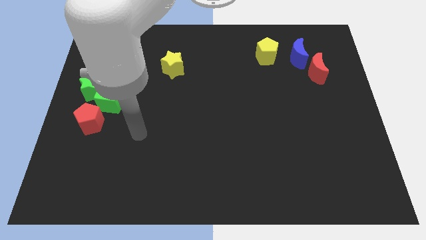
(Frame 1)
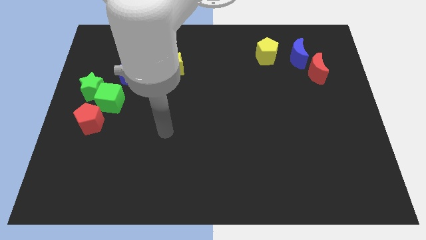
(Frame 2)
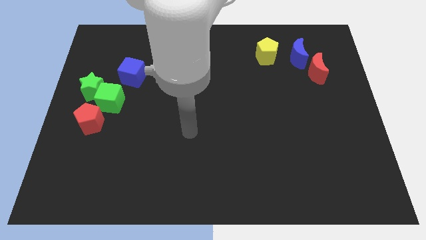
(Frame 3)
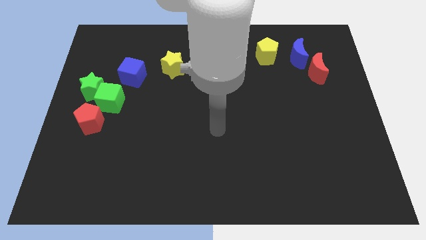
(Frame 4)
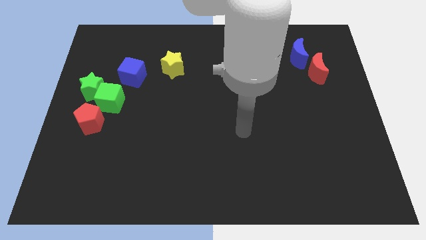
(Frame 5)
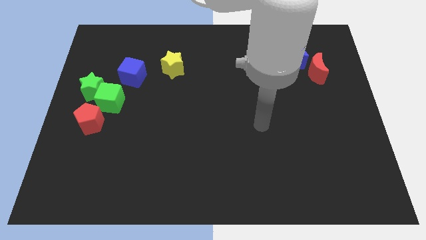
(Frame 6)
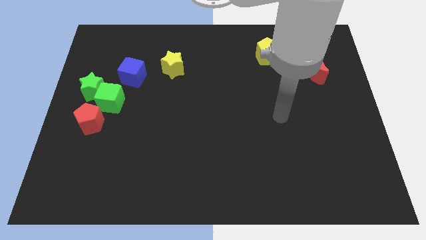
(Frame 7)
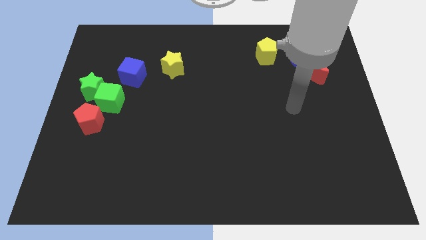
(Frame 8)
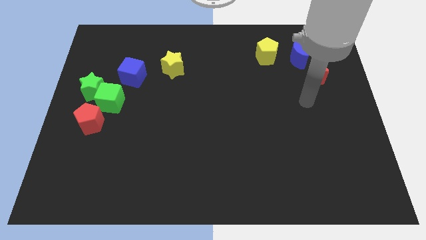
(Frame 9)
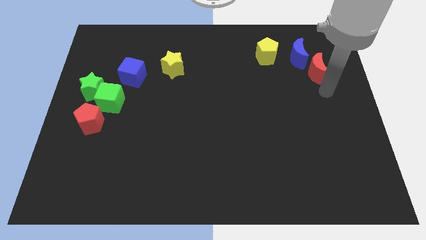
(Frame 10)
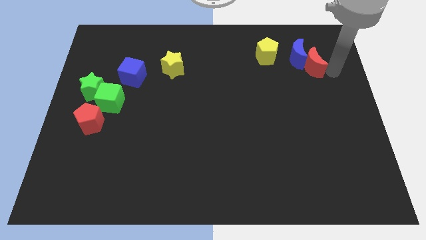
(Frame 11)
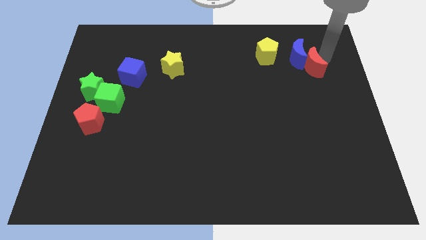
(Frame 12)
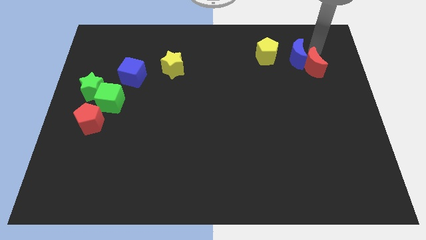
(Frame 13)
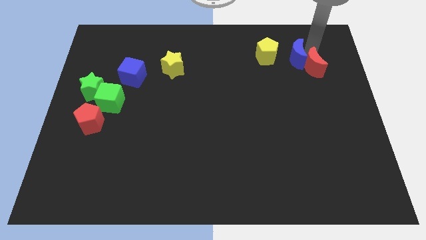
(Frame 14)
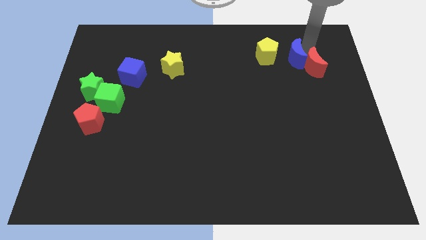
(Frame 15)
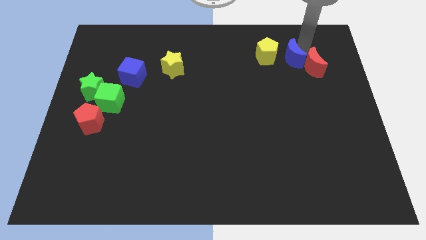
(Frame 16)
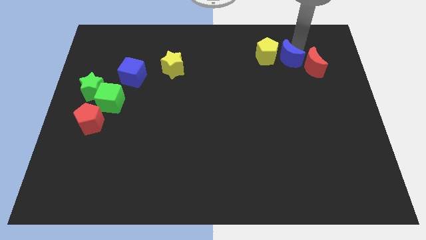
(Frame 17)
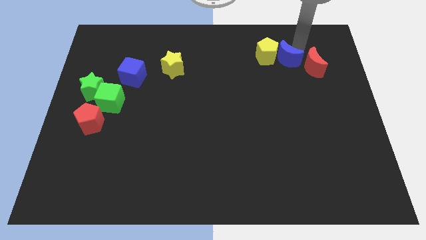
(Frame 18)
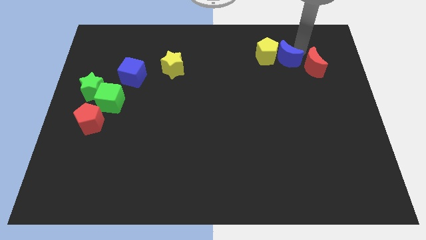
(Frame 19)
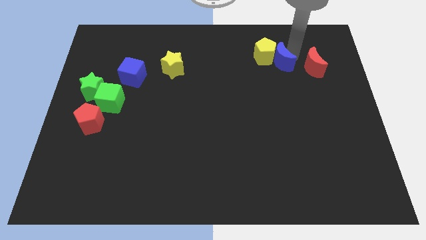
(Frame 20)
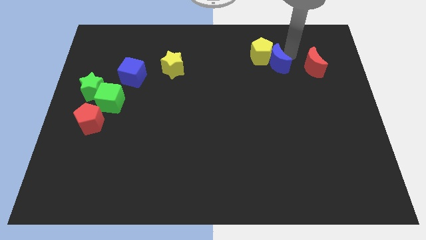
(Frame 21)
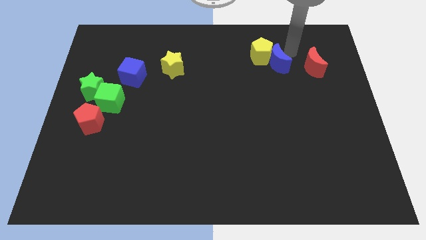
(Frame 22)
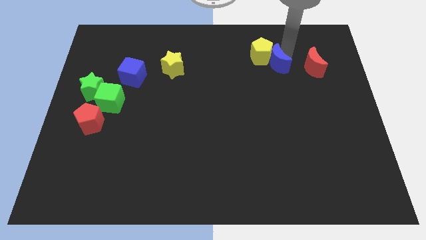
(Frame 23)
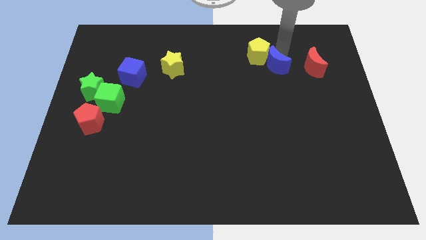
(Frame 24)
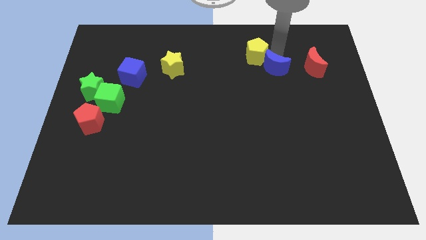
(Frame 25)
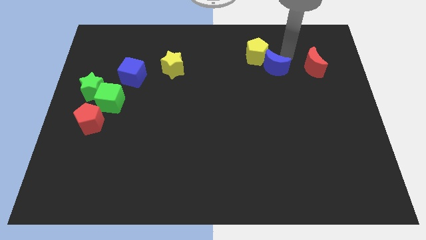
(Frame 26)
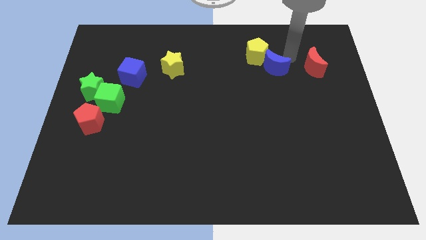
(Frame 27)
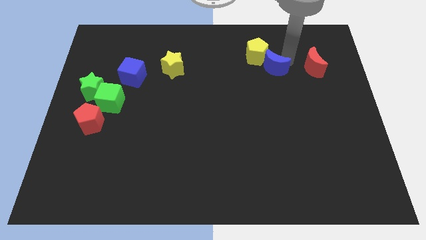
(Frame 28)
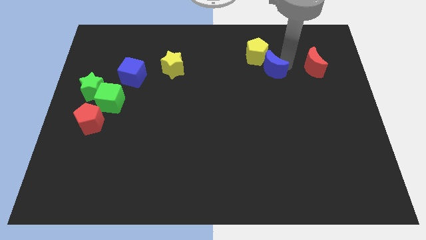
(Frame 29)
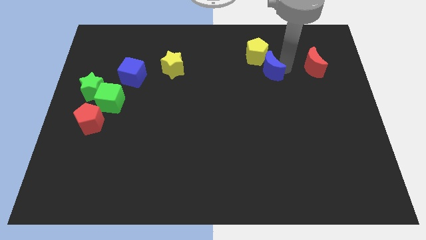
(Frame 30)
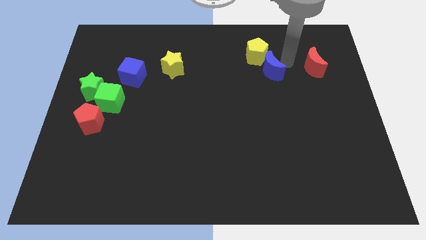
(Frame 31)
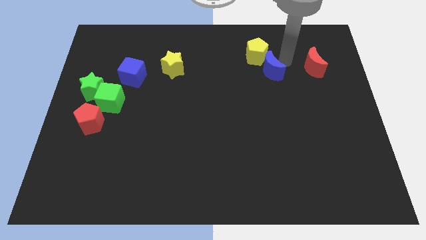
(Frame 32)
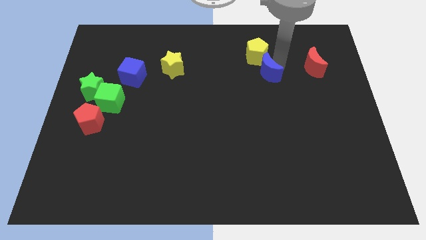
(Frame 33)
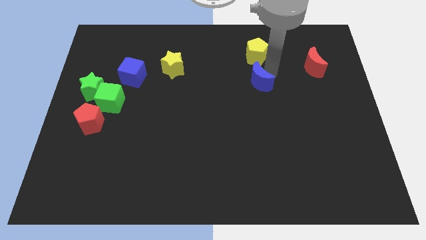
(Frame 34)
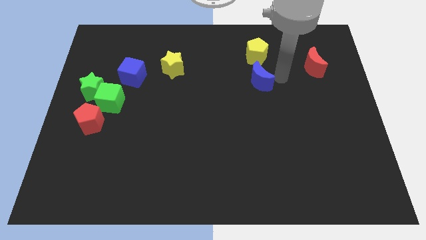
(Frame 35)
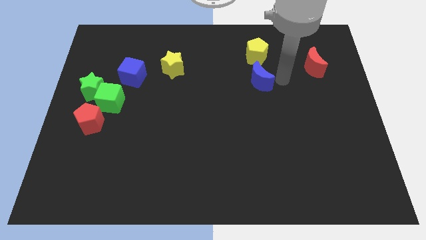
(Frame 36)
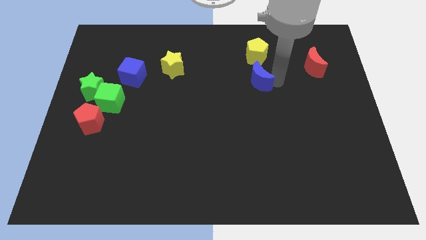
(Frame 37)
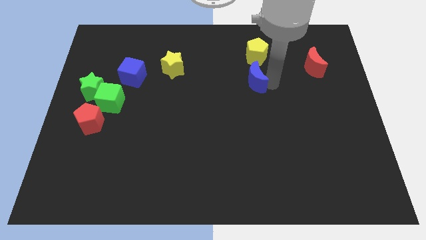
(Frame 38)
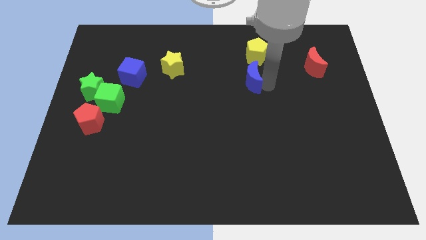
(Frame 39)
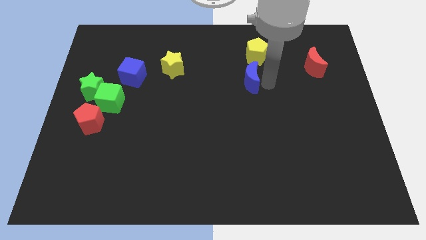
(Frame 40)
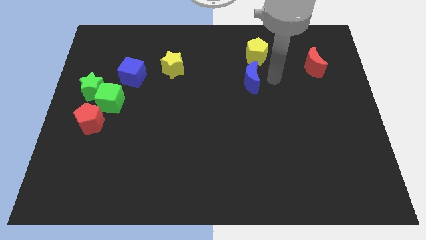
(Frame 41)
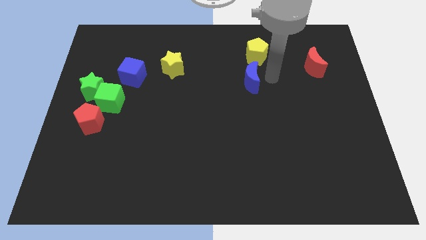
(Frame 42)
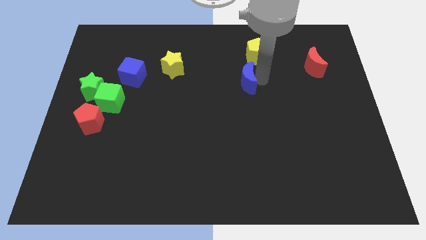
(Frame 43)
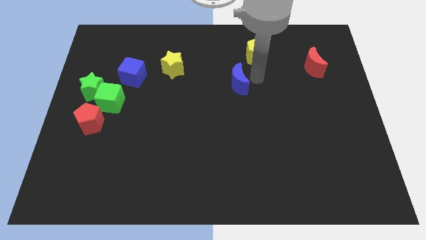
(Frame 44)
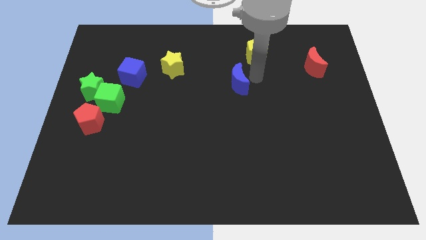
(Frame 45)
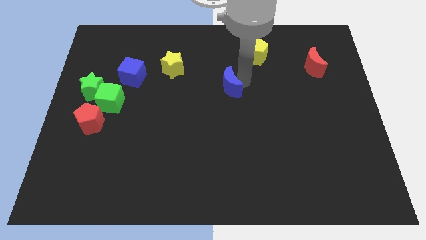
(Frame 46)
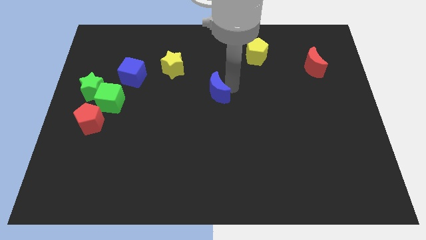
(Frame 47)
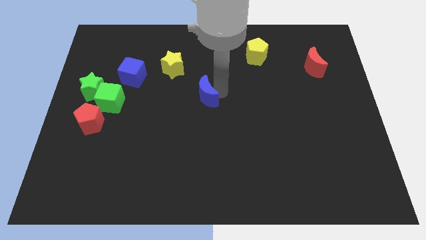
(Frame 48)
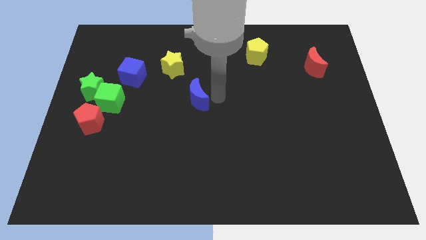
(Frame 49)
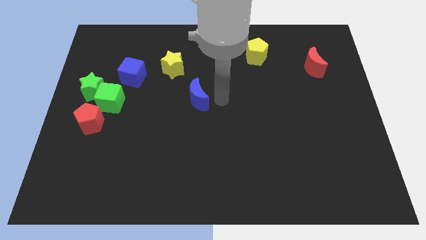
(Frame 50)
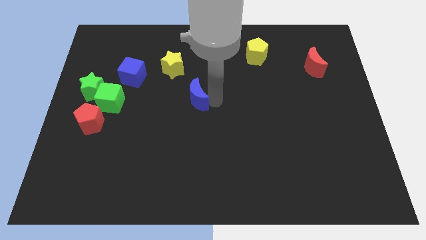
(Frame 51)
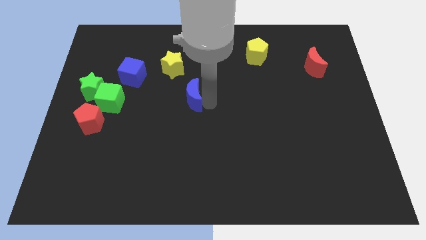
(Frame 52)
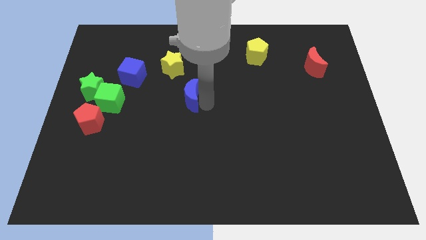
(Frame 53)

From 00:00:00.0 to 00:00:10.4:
slide the blue moon below the yellow star

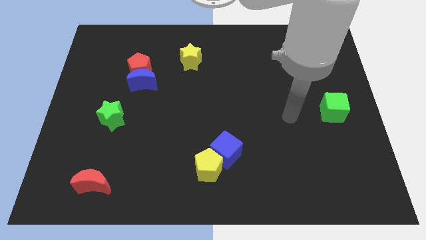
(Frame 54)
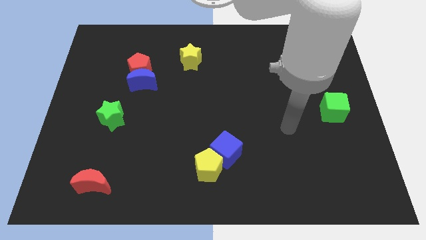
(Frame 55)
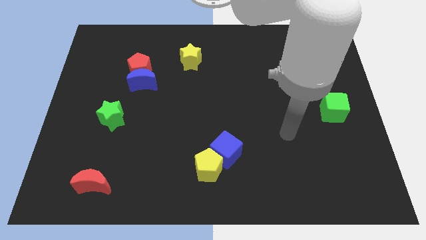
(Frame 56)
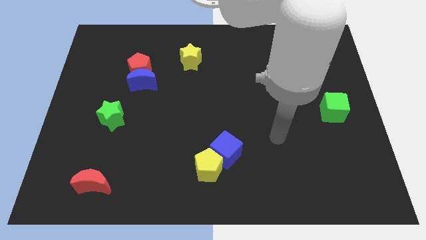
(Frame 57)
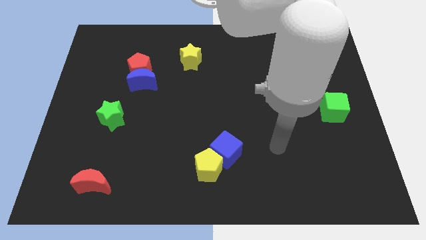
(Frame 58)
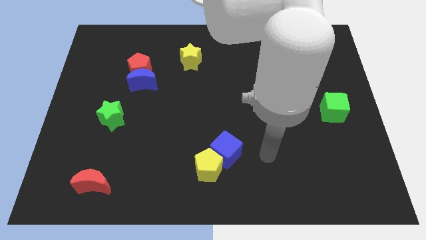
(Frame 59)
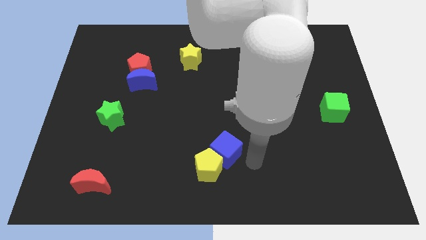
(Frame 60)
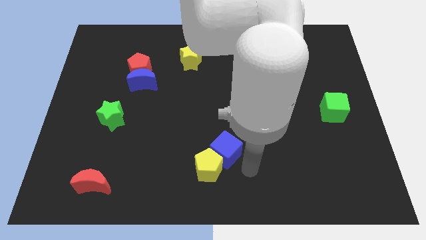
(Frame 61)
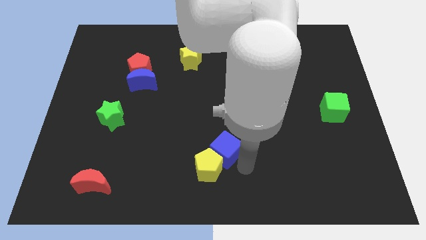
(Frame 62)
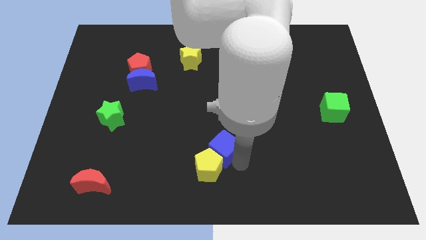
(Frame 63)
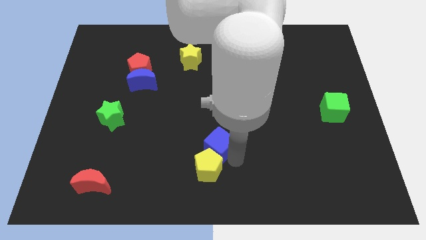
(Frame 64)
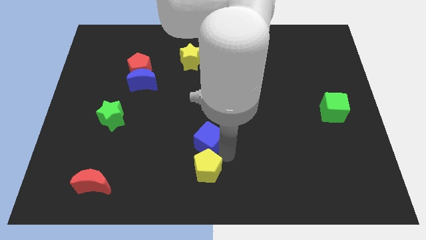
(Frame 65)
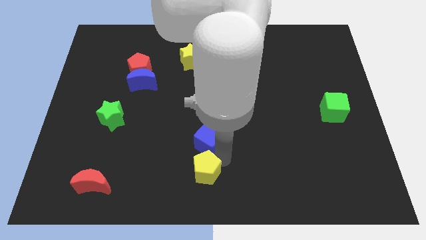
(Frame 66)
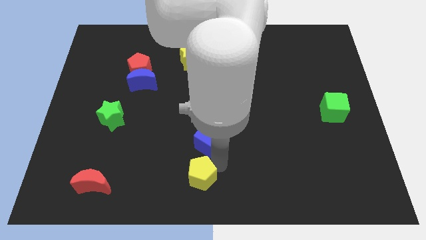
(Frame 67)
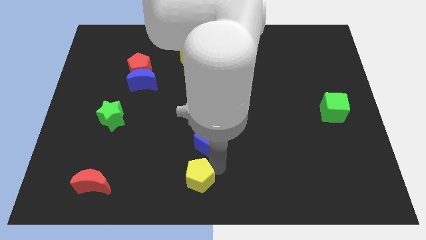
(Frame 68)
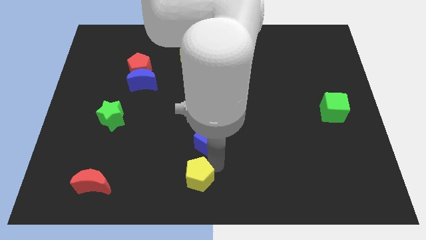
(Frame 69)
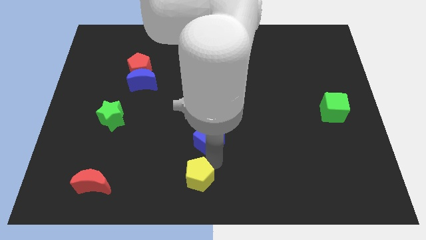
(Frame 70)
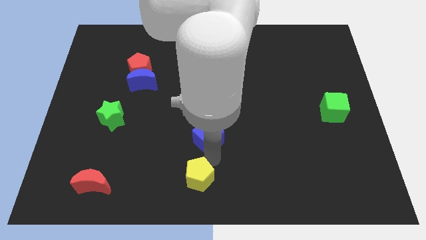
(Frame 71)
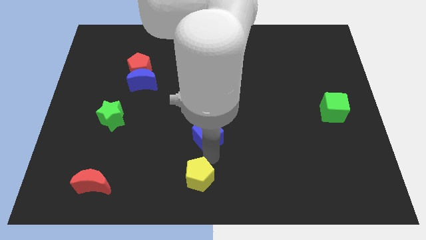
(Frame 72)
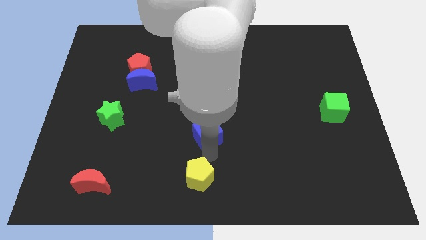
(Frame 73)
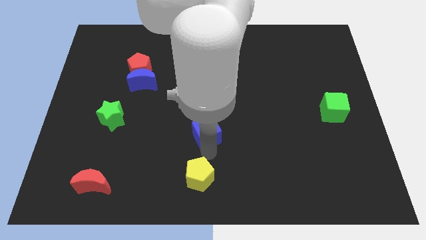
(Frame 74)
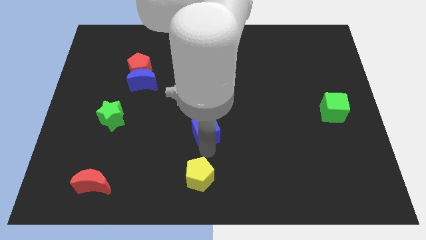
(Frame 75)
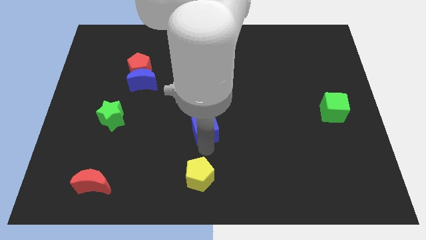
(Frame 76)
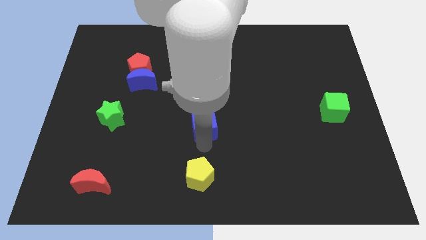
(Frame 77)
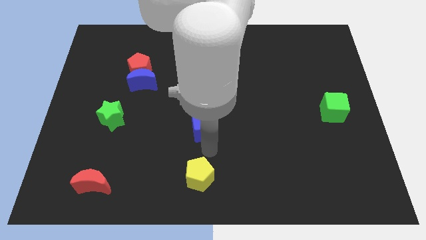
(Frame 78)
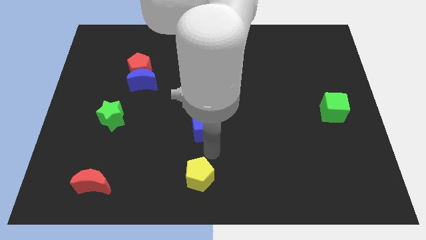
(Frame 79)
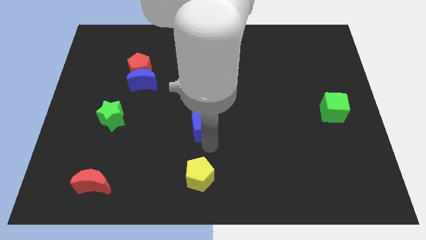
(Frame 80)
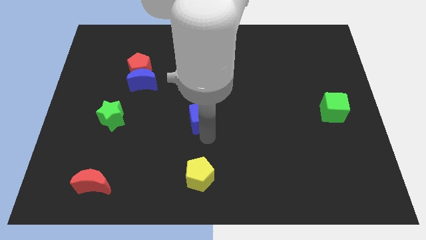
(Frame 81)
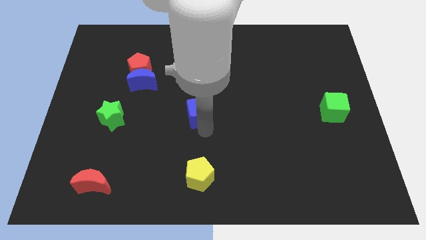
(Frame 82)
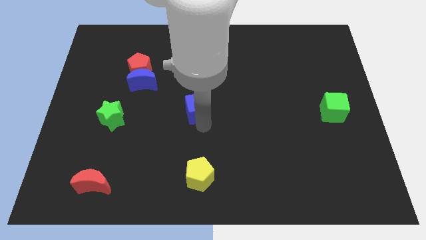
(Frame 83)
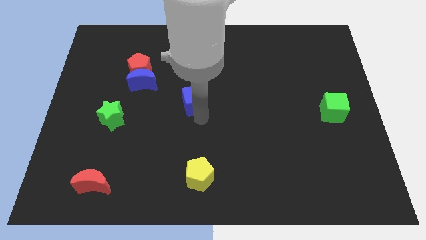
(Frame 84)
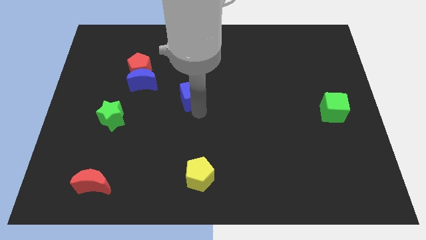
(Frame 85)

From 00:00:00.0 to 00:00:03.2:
push the blue cube to the right side of the blue moon
